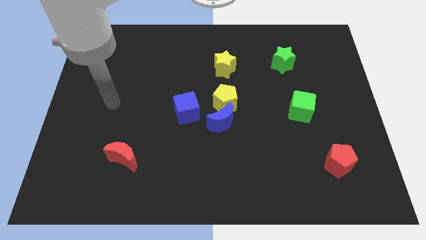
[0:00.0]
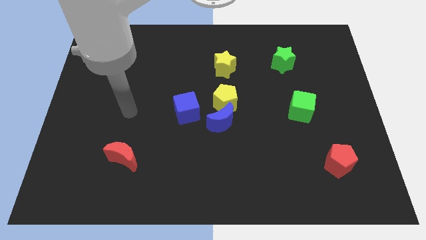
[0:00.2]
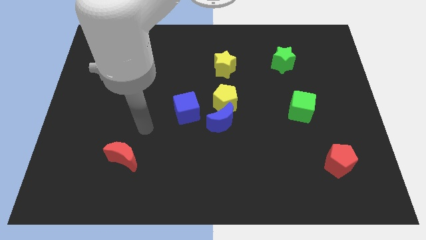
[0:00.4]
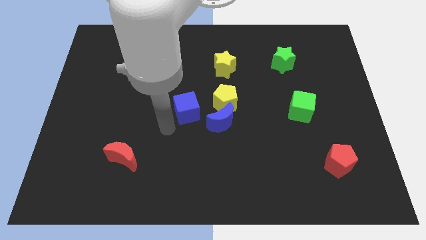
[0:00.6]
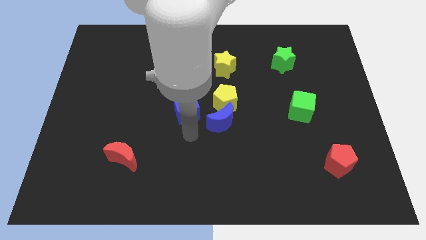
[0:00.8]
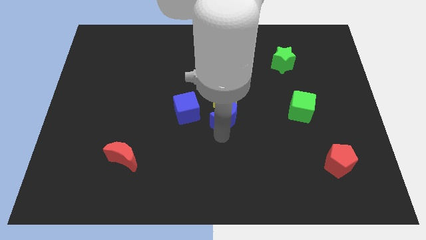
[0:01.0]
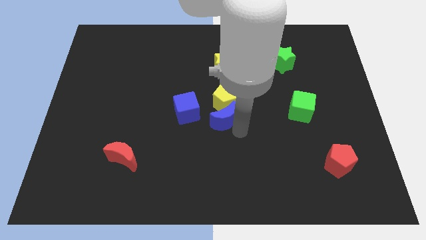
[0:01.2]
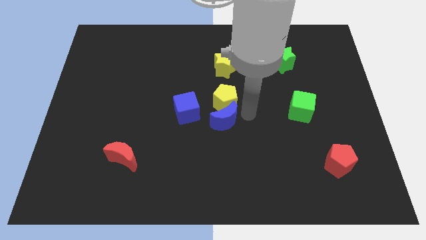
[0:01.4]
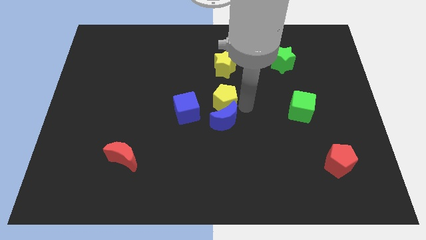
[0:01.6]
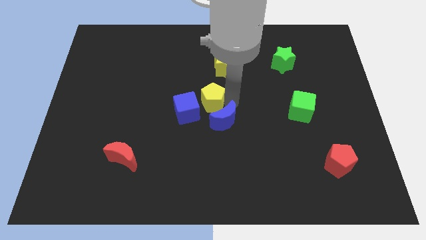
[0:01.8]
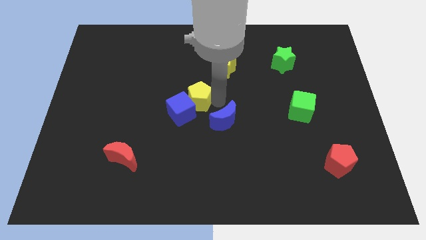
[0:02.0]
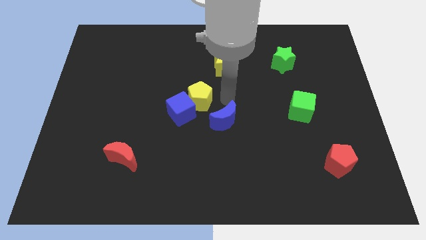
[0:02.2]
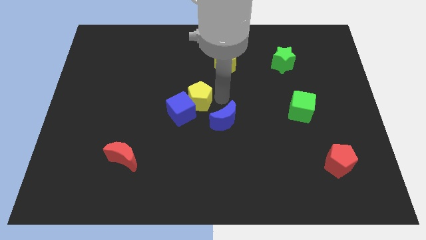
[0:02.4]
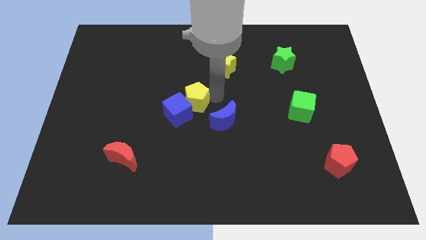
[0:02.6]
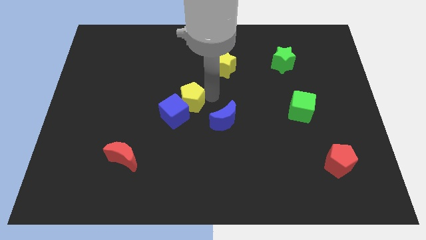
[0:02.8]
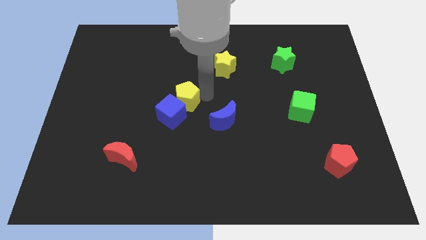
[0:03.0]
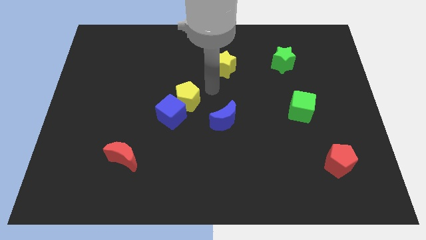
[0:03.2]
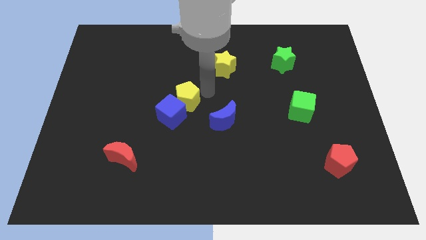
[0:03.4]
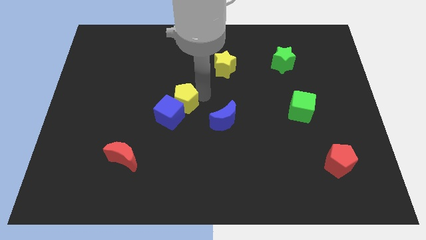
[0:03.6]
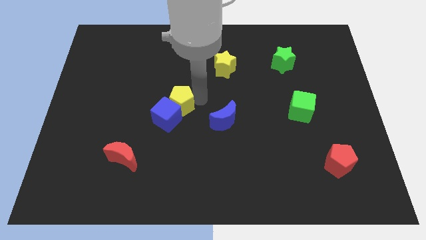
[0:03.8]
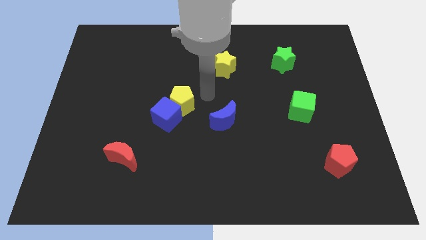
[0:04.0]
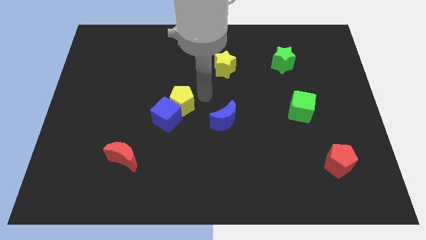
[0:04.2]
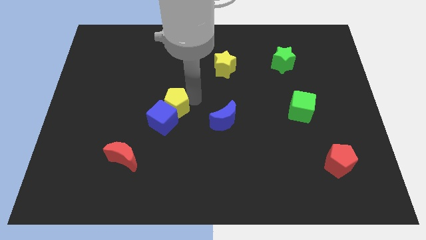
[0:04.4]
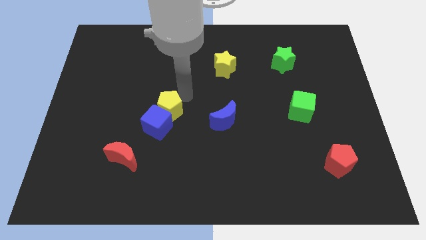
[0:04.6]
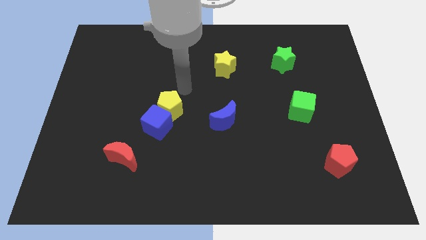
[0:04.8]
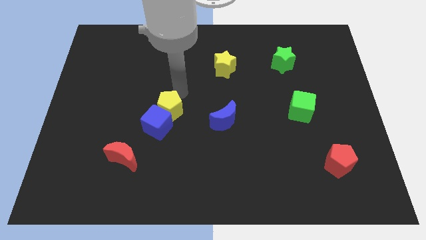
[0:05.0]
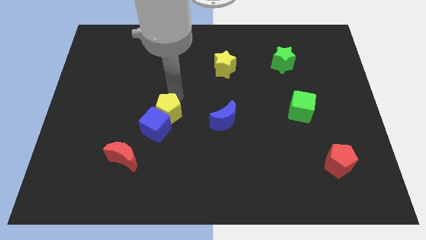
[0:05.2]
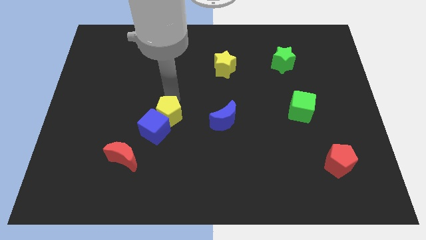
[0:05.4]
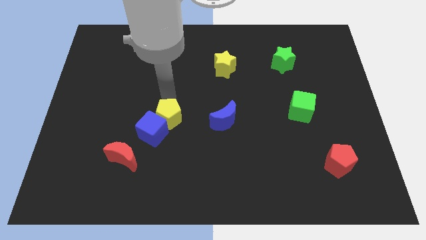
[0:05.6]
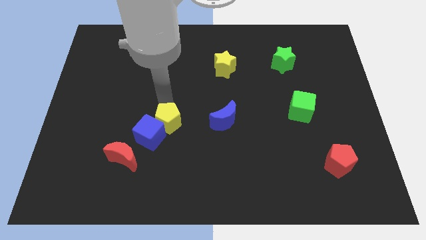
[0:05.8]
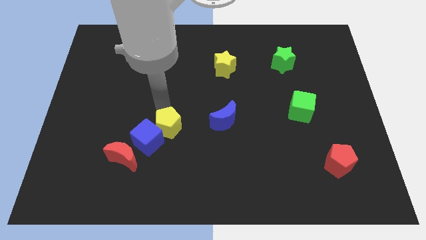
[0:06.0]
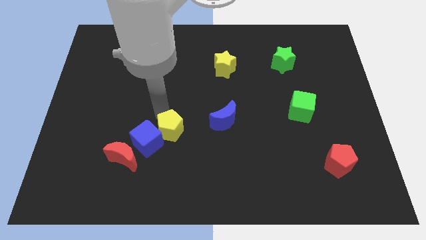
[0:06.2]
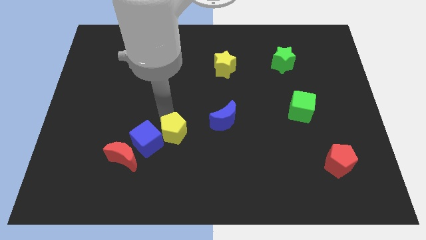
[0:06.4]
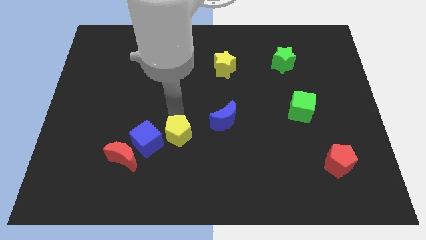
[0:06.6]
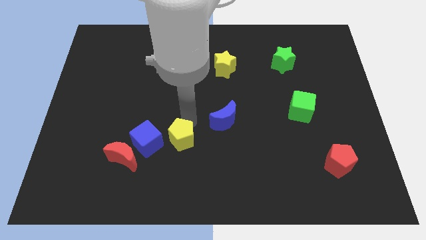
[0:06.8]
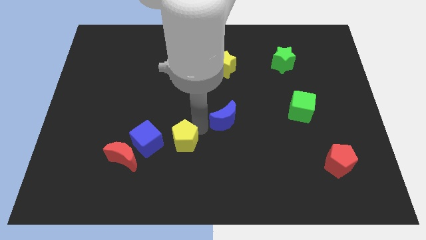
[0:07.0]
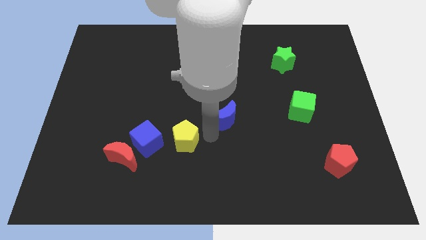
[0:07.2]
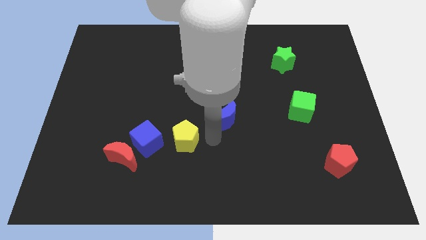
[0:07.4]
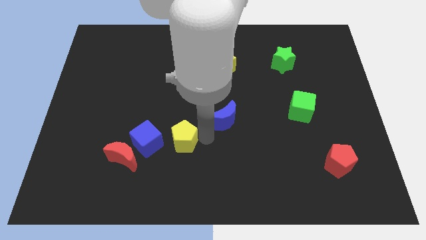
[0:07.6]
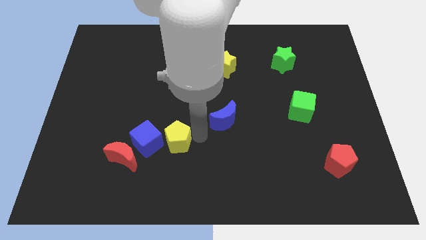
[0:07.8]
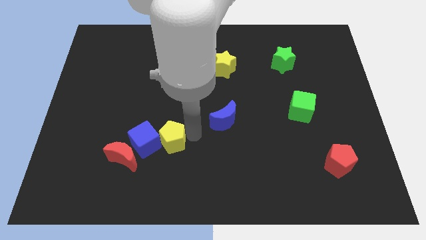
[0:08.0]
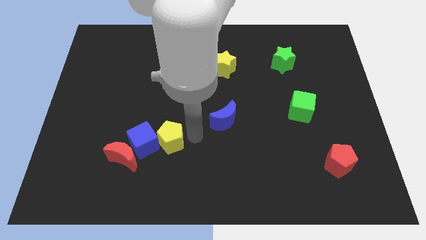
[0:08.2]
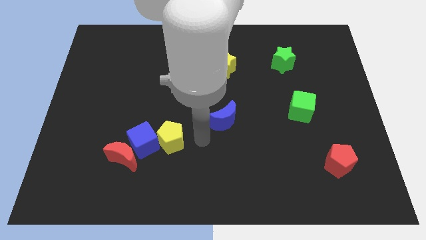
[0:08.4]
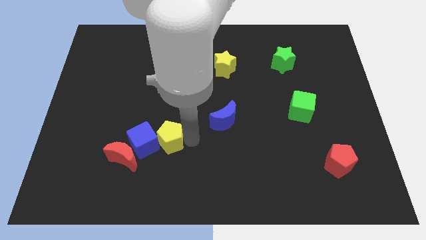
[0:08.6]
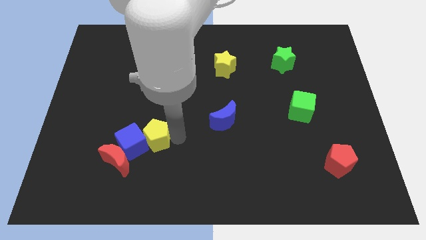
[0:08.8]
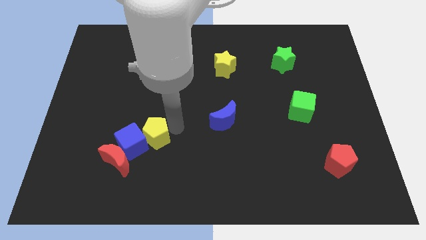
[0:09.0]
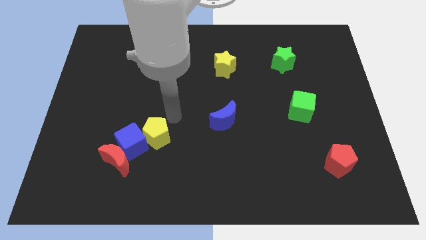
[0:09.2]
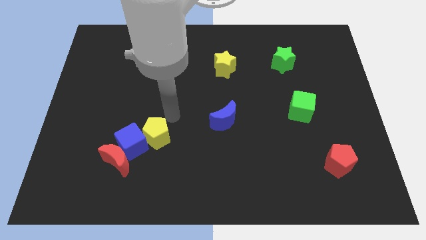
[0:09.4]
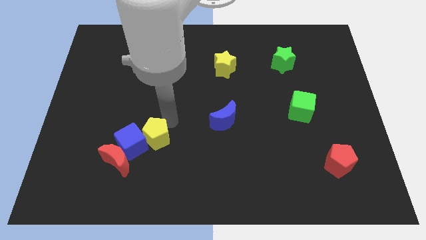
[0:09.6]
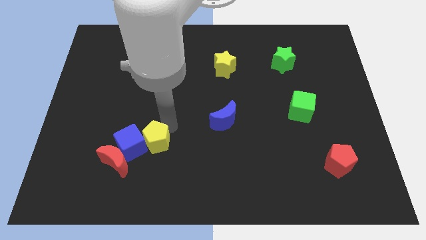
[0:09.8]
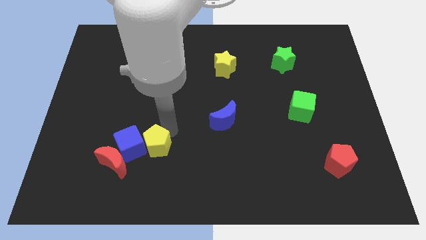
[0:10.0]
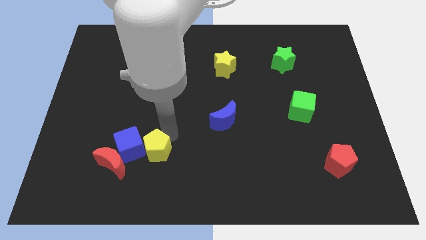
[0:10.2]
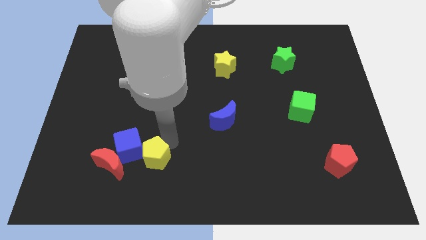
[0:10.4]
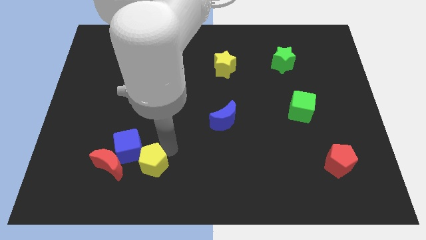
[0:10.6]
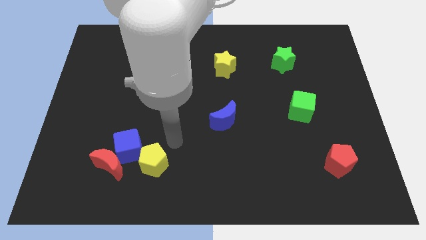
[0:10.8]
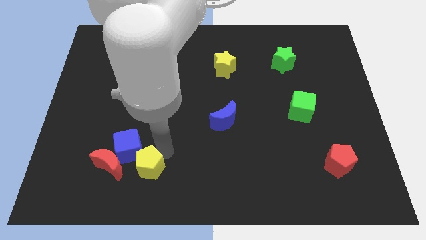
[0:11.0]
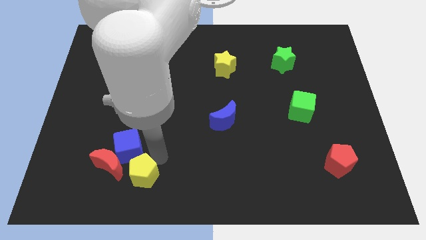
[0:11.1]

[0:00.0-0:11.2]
slide the yellow pentagon diagonally down and to the right of the red moon

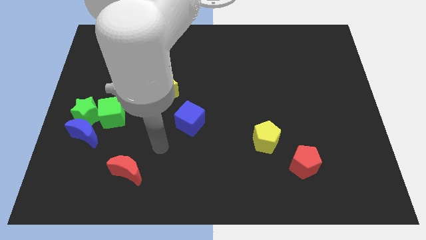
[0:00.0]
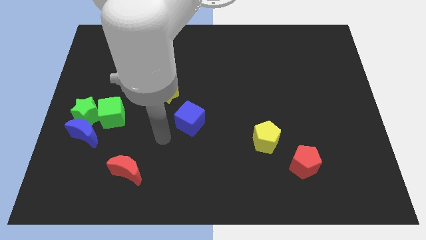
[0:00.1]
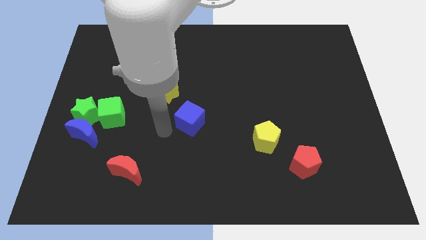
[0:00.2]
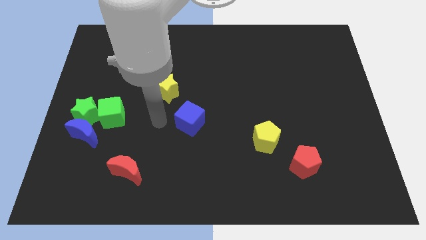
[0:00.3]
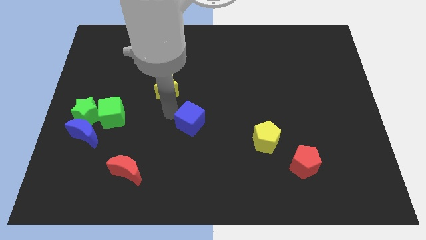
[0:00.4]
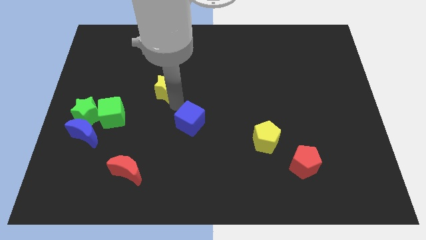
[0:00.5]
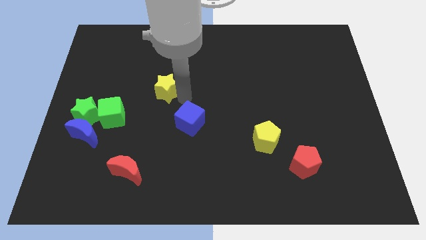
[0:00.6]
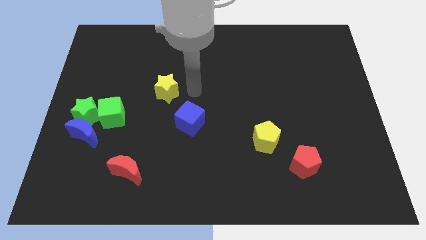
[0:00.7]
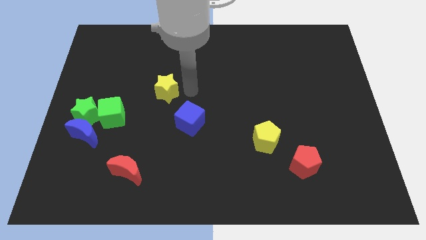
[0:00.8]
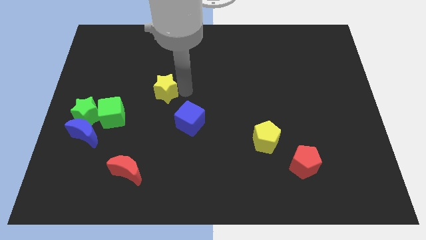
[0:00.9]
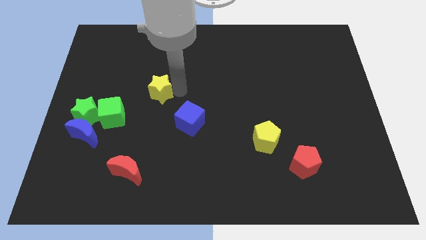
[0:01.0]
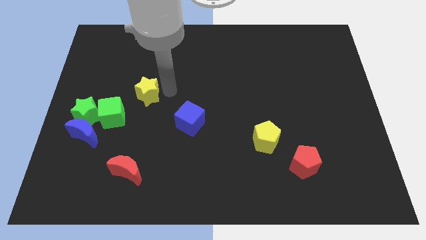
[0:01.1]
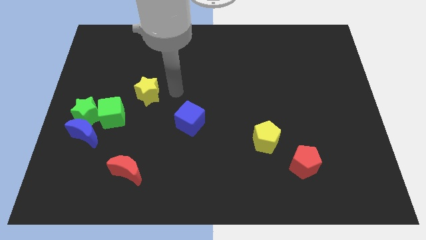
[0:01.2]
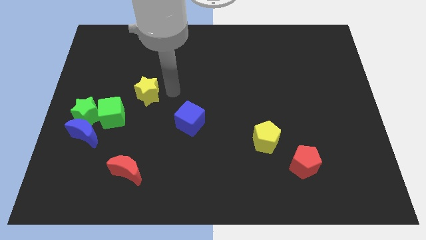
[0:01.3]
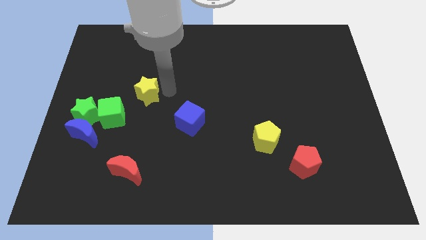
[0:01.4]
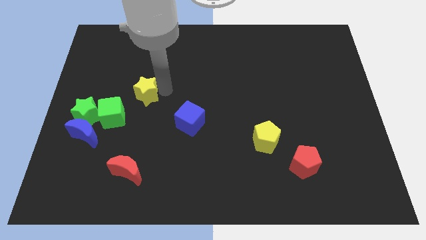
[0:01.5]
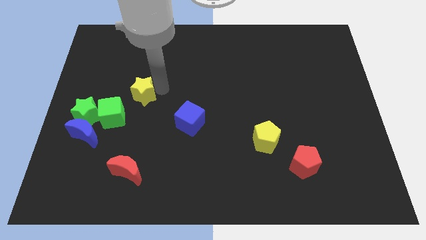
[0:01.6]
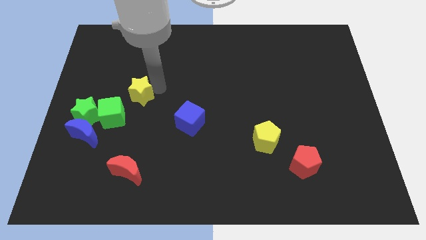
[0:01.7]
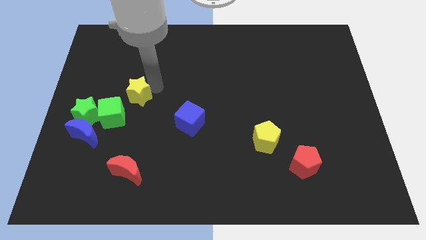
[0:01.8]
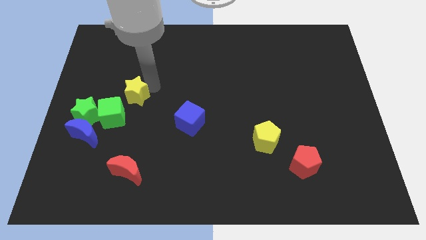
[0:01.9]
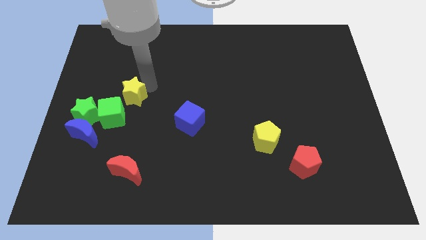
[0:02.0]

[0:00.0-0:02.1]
move the yellow star diagonally up and to the right of the green star

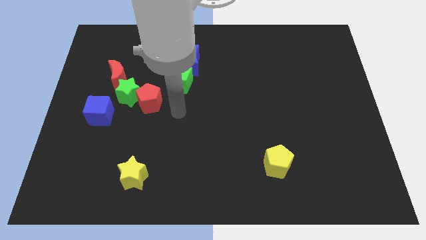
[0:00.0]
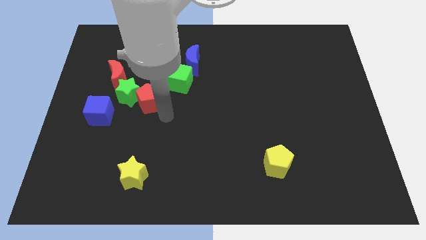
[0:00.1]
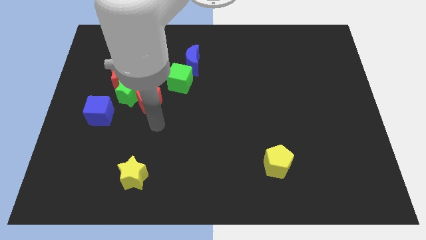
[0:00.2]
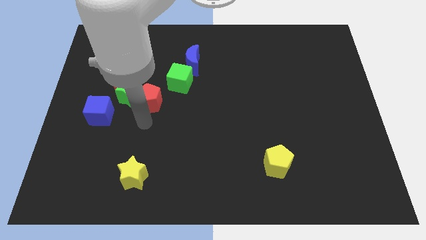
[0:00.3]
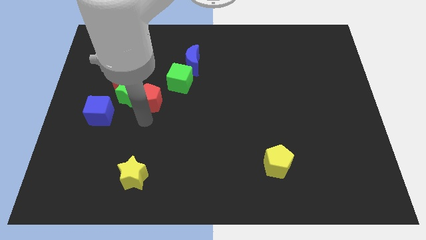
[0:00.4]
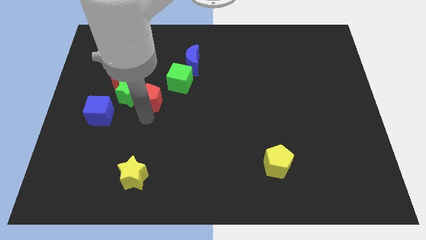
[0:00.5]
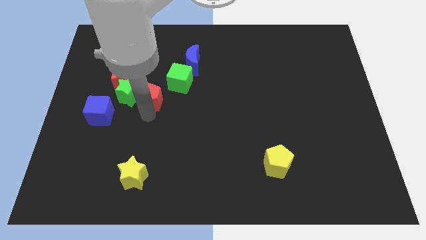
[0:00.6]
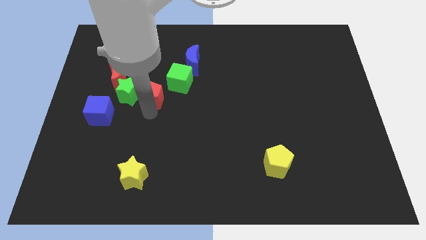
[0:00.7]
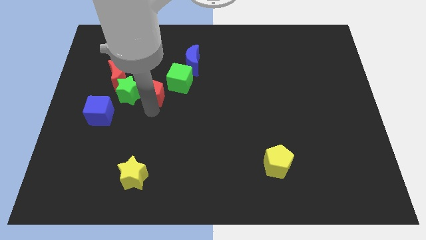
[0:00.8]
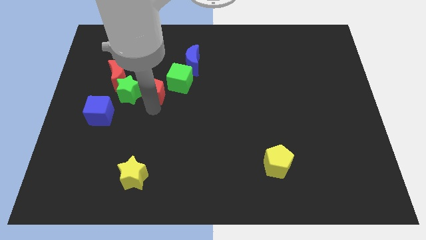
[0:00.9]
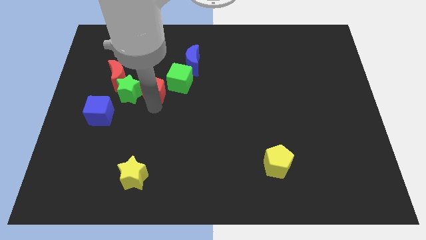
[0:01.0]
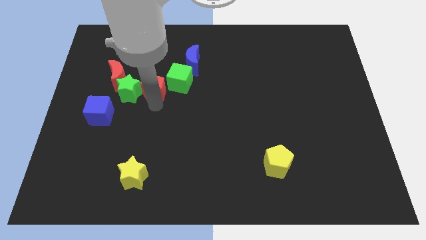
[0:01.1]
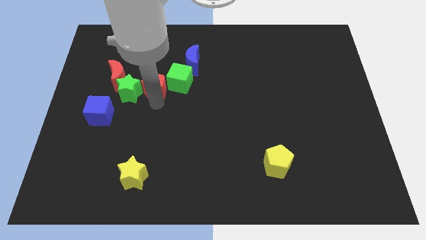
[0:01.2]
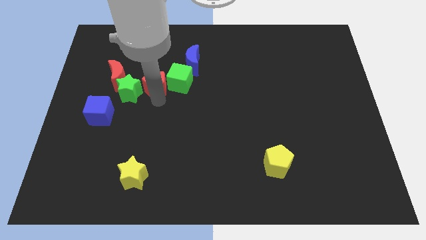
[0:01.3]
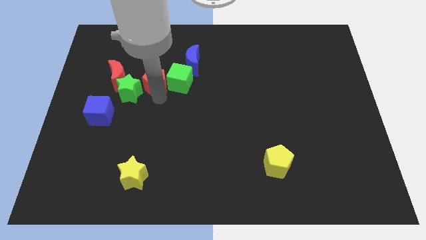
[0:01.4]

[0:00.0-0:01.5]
slide the red pentagon to the top left side of the green cube
